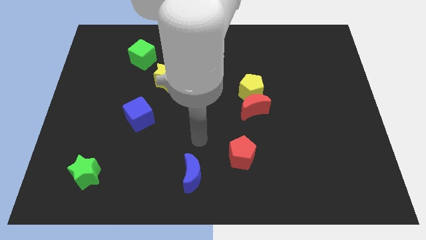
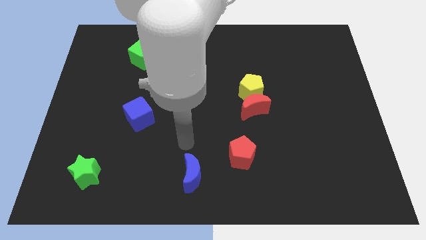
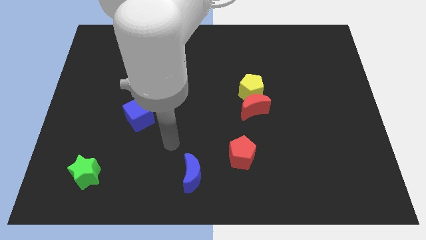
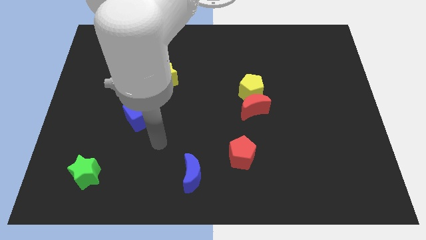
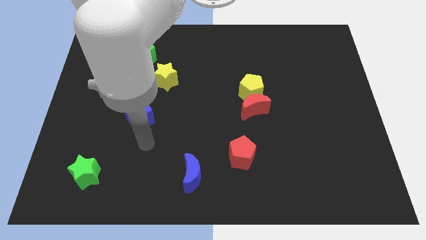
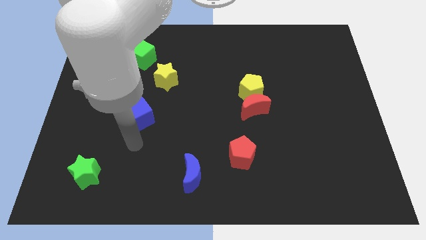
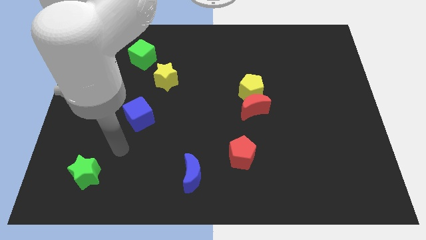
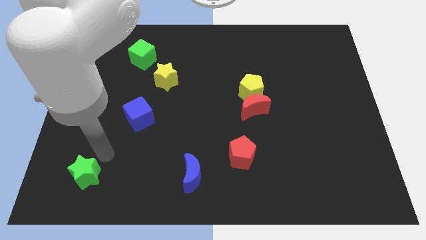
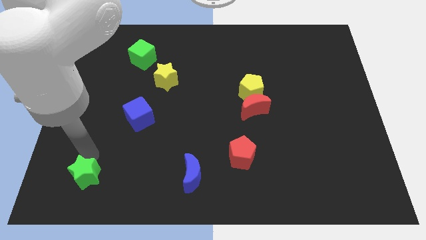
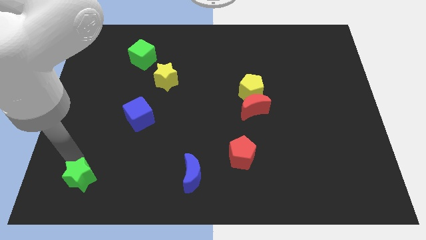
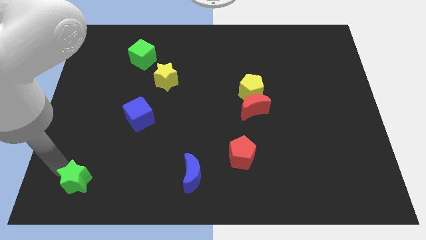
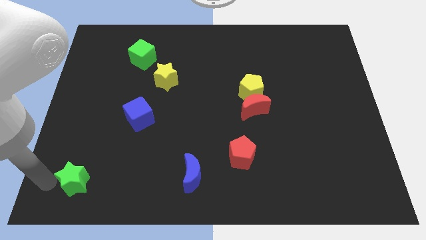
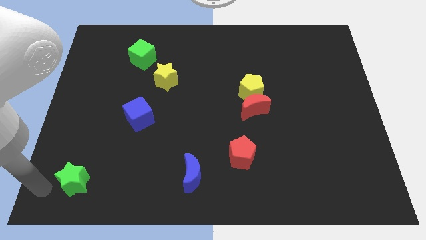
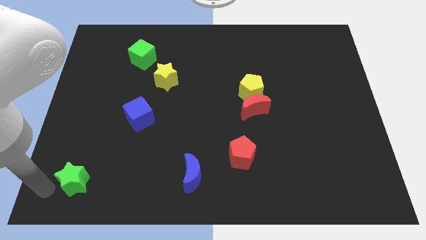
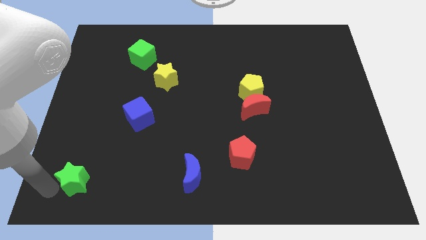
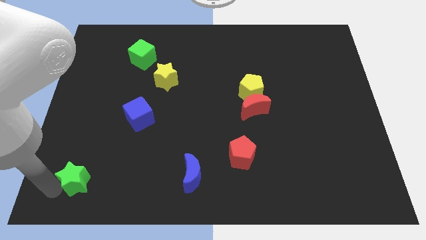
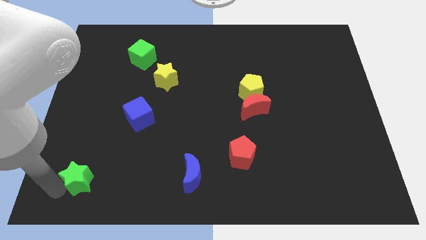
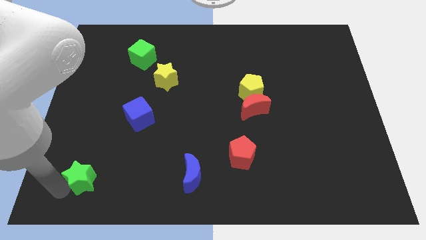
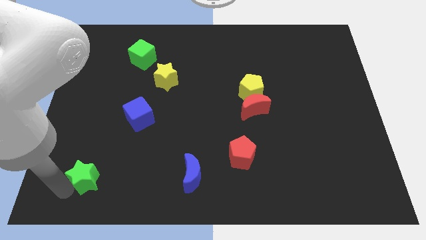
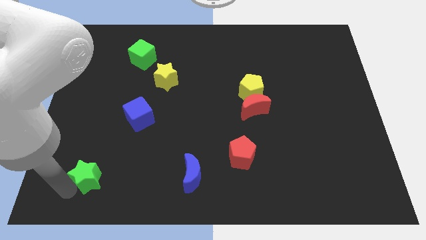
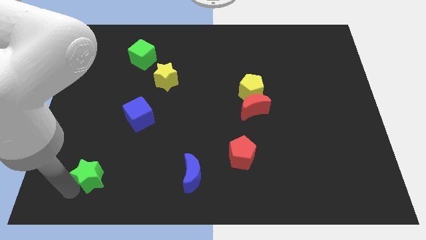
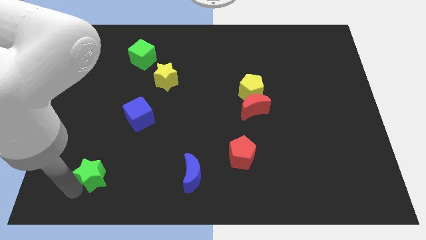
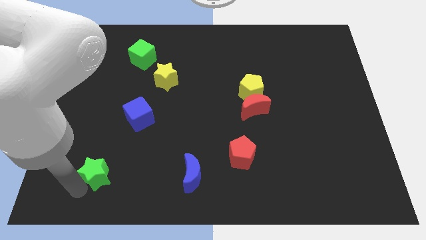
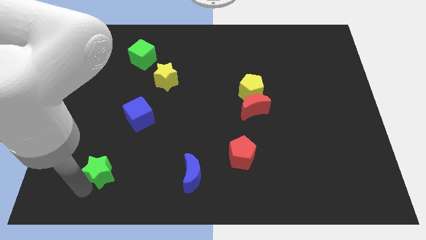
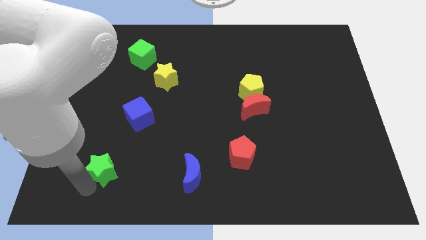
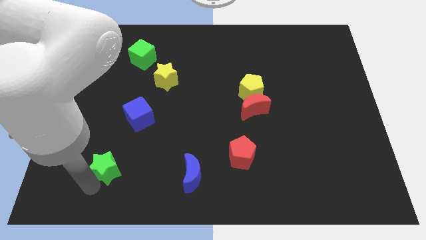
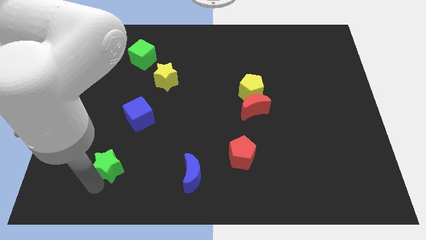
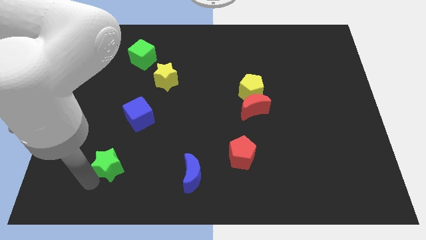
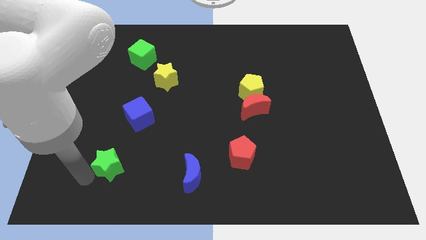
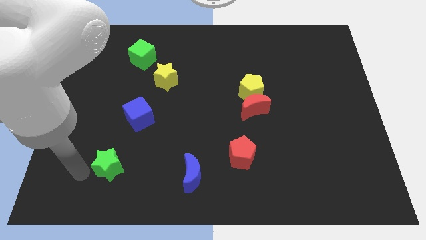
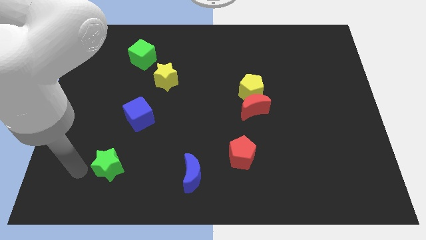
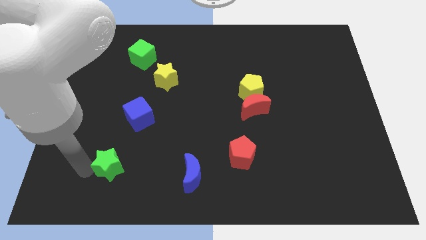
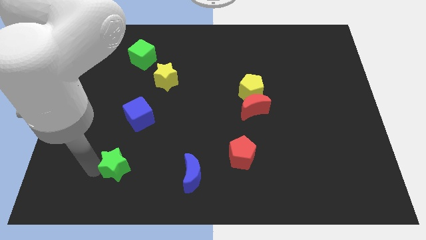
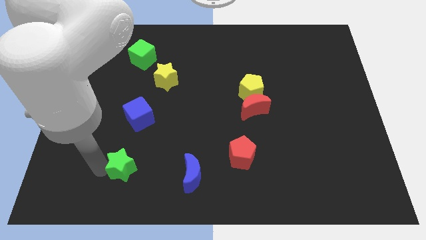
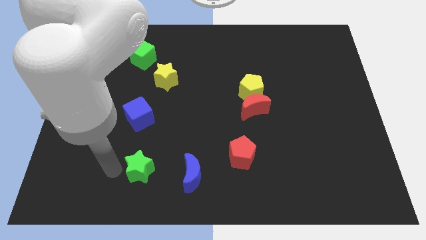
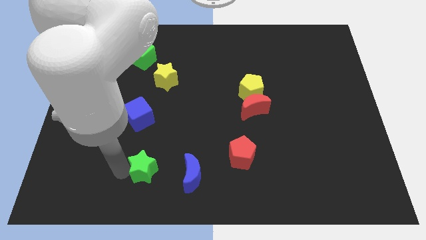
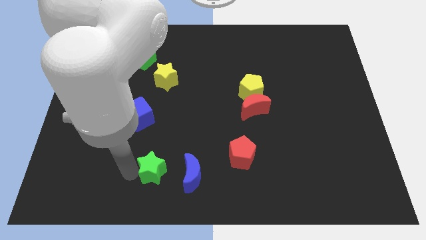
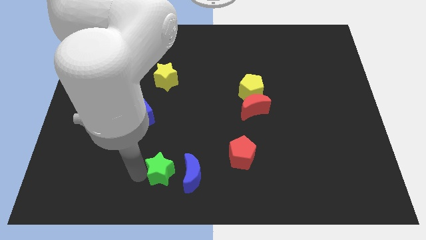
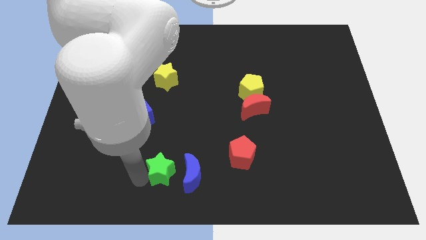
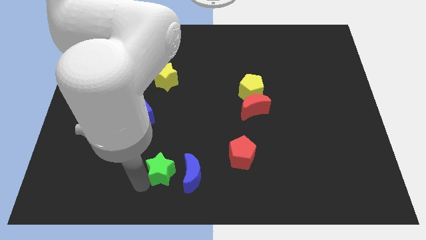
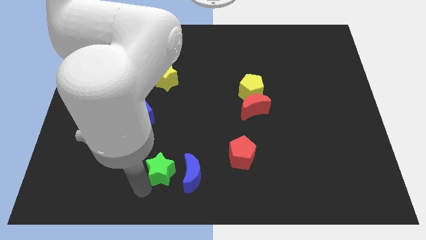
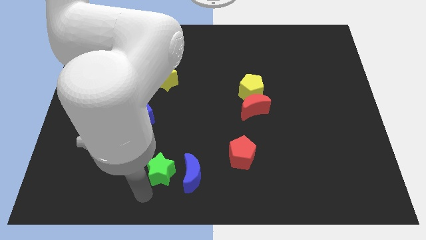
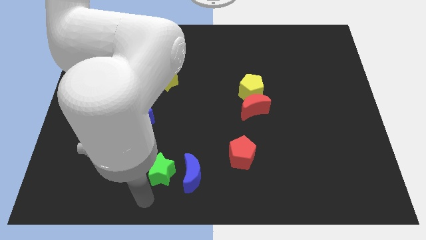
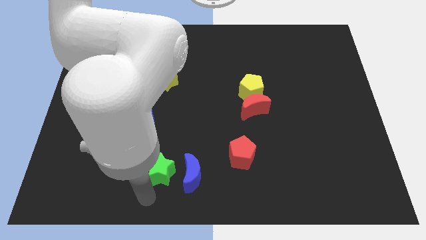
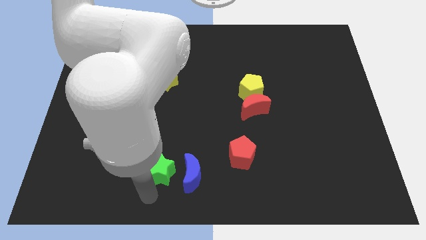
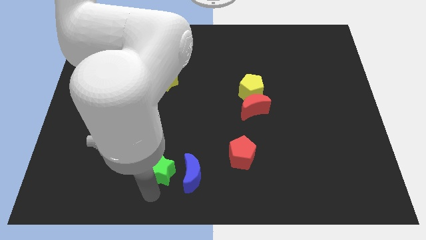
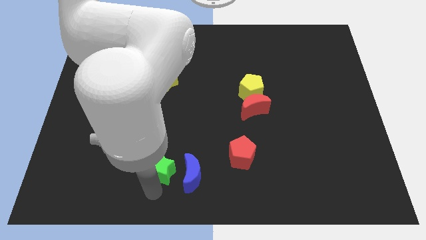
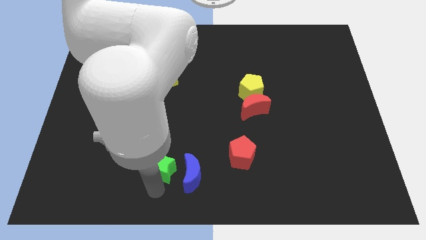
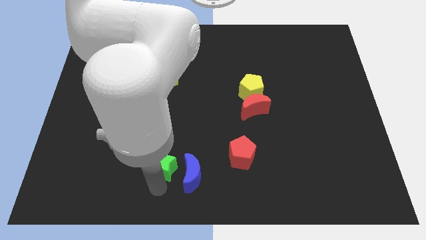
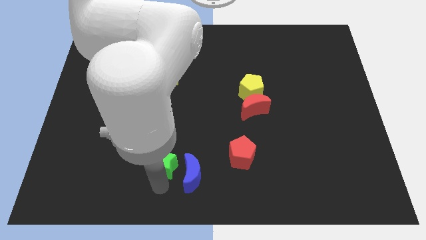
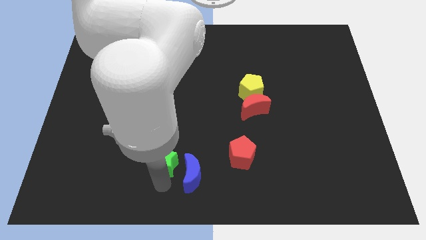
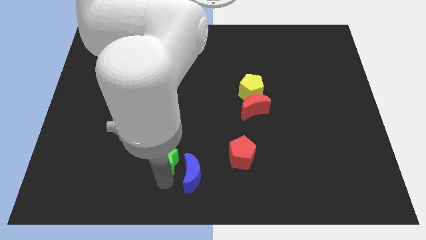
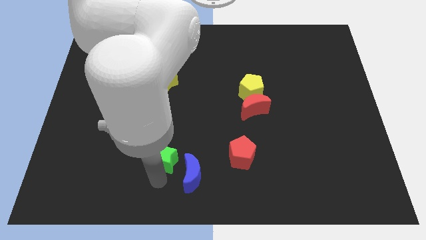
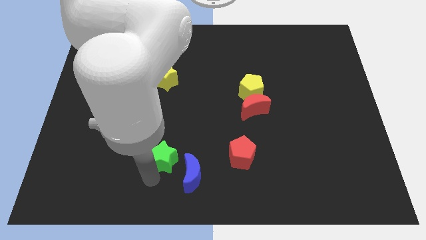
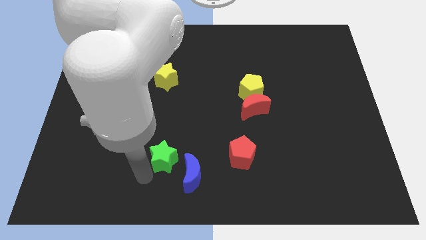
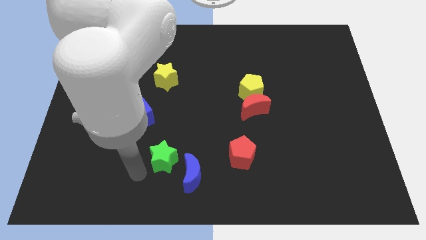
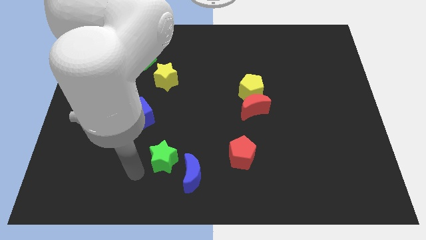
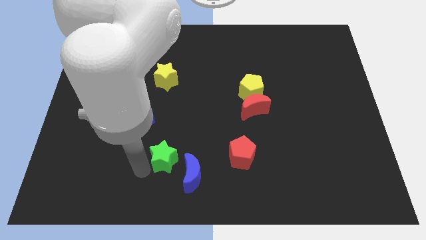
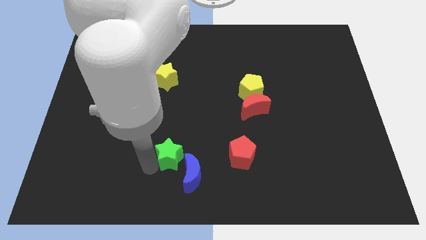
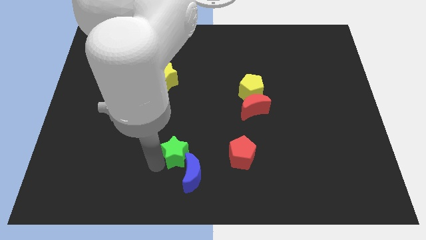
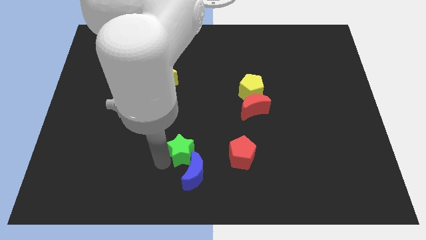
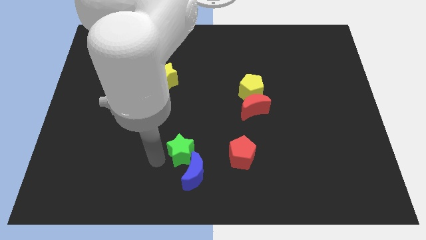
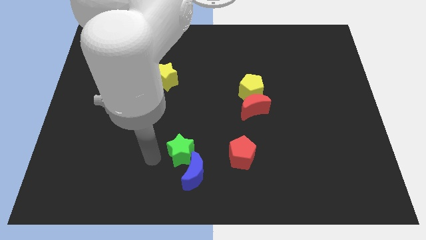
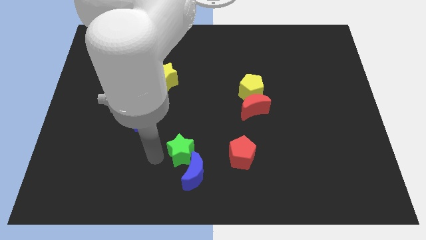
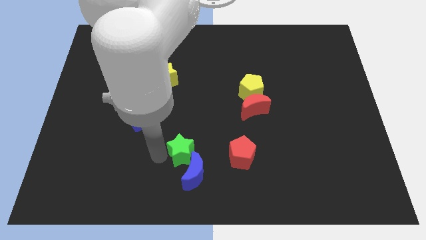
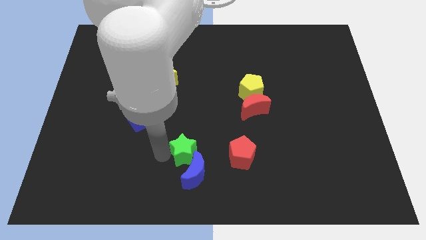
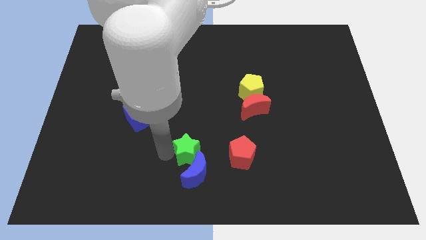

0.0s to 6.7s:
slide the green star to the right

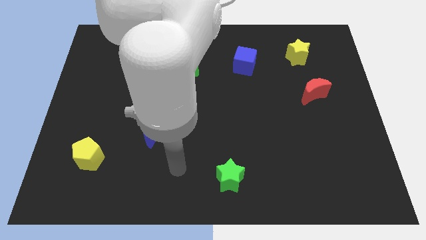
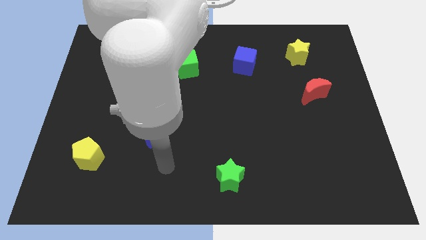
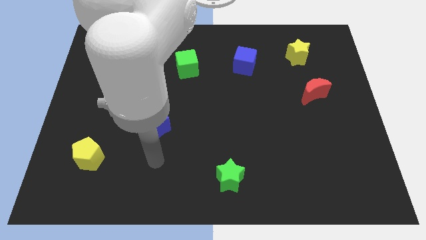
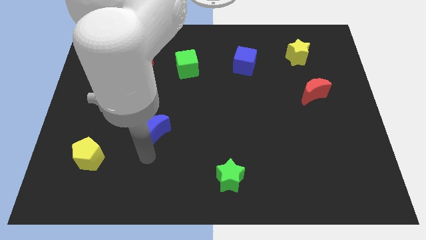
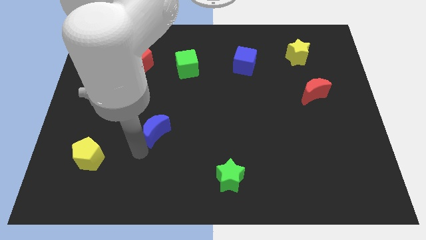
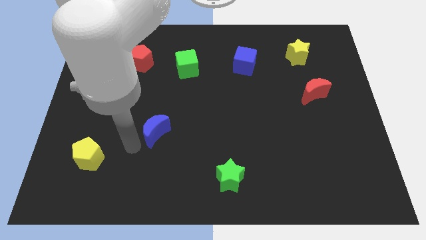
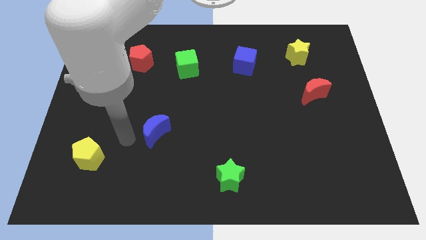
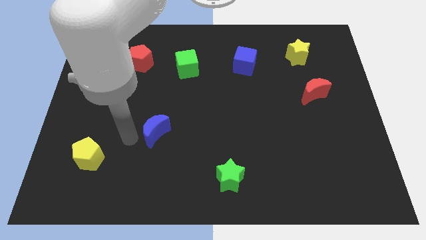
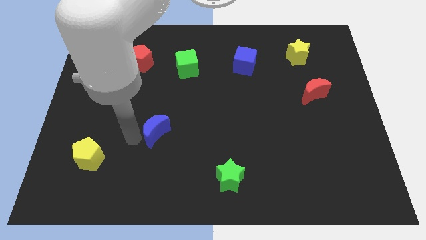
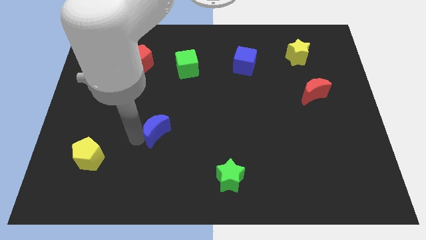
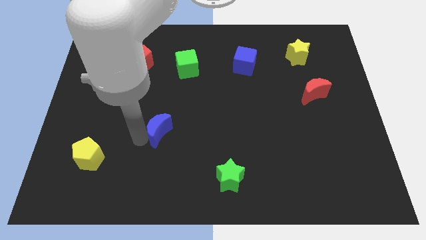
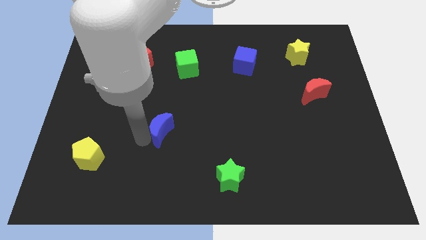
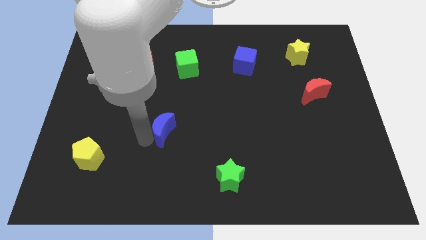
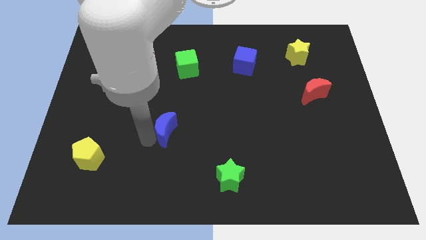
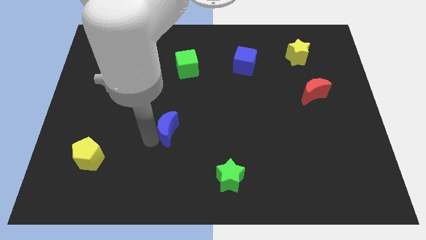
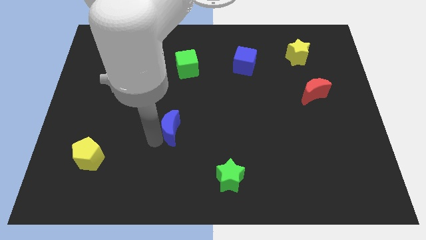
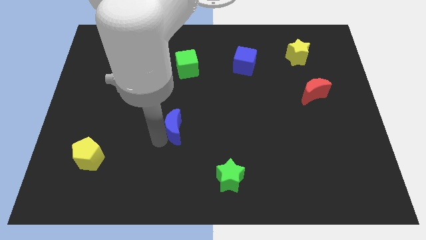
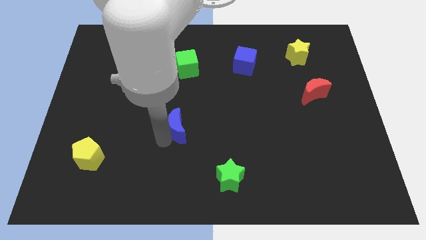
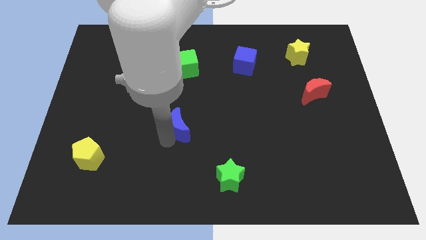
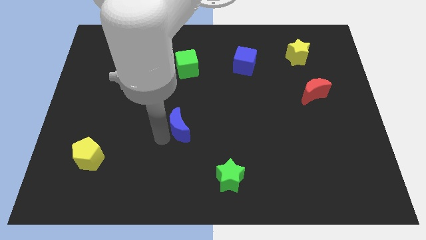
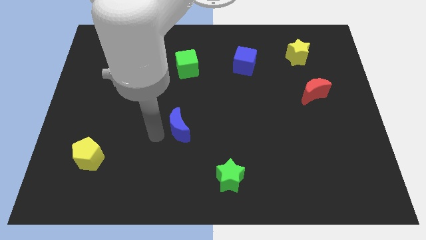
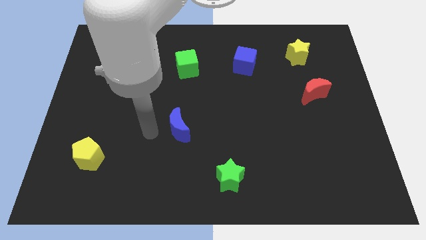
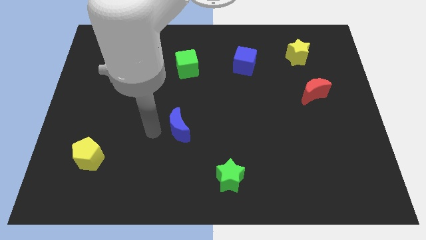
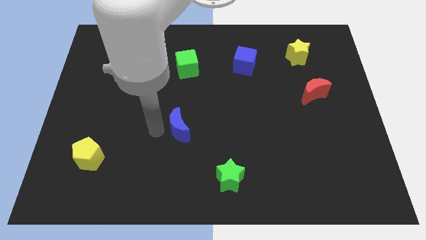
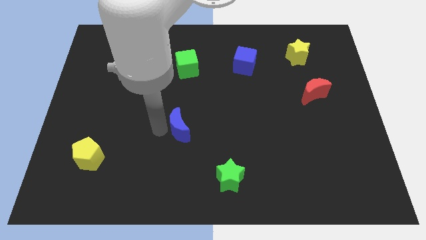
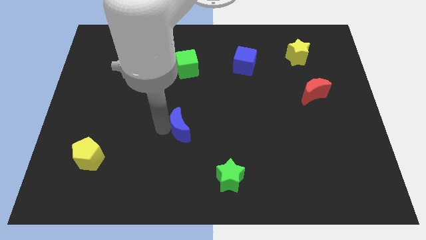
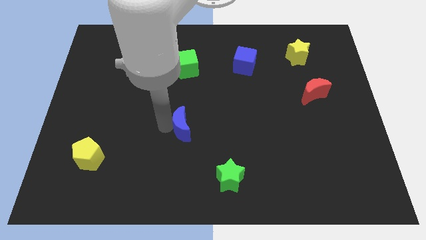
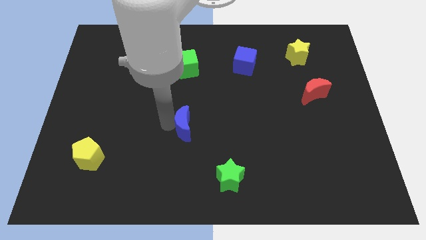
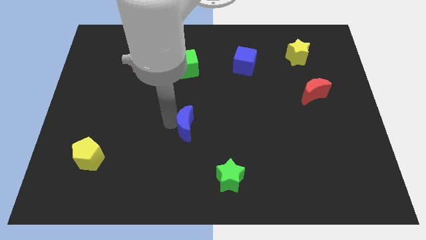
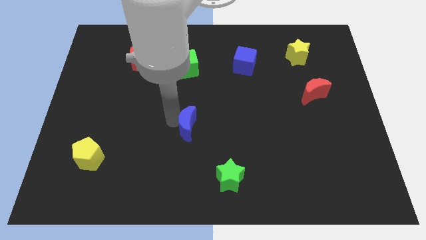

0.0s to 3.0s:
slide the blue moon to the right slightly
